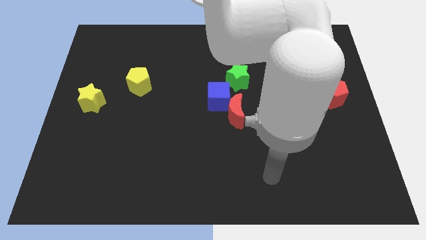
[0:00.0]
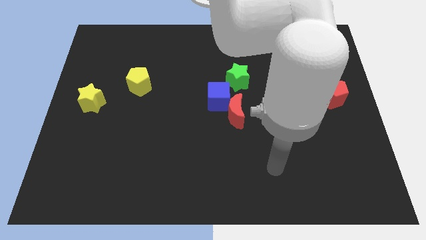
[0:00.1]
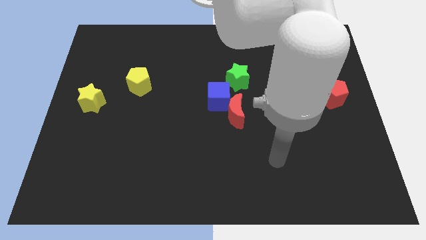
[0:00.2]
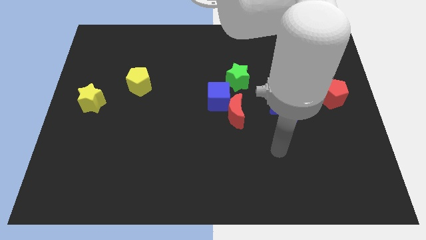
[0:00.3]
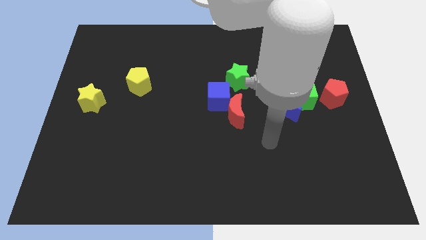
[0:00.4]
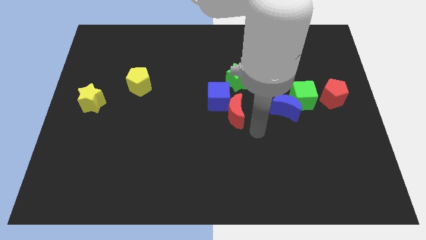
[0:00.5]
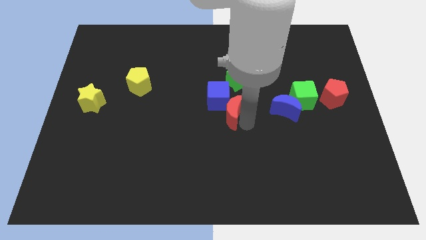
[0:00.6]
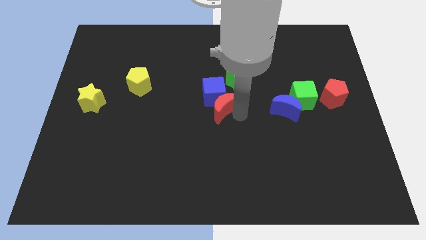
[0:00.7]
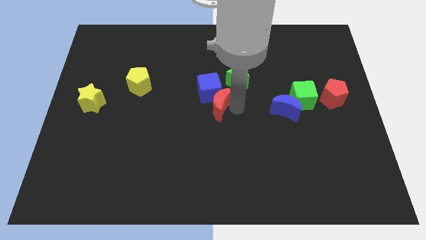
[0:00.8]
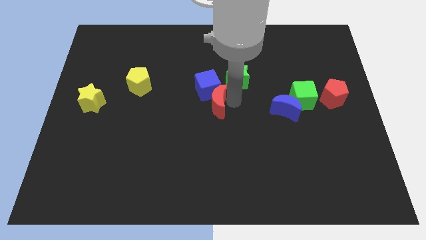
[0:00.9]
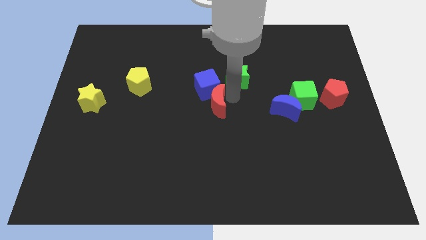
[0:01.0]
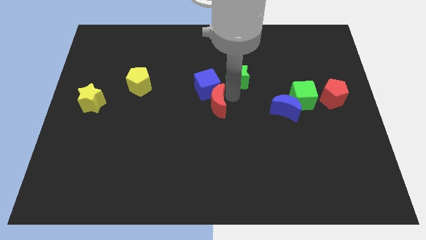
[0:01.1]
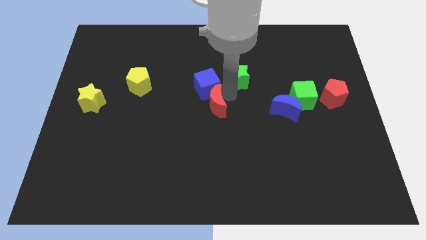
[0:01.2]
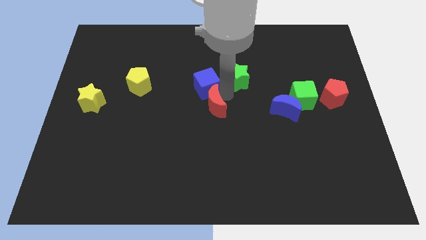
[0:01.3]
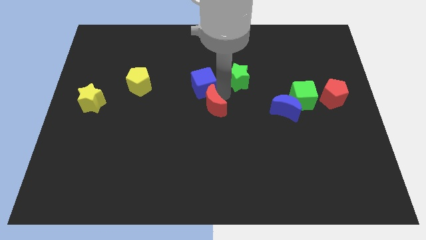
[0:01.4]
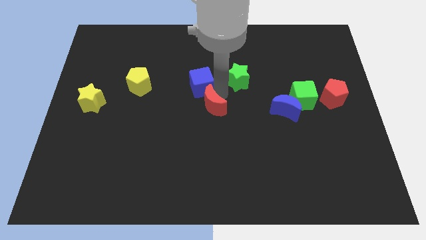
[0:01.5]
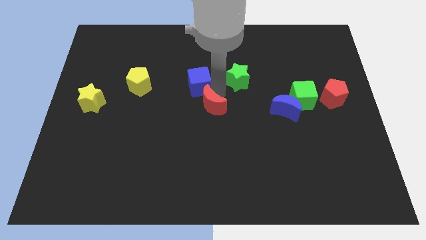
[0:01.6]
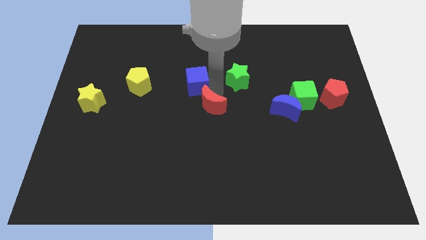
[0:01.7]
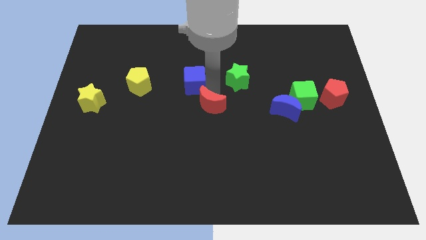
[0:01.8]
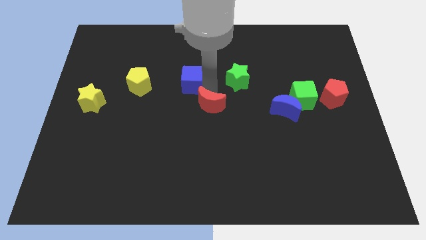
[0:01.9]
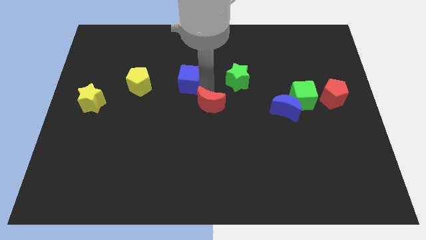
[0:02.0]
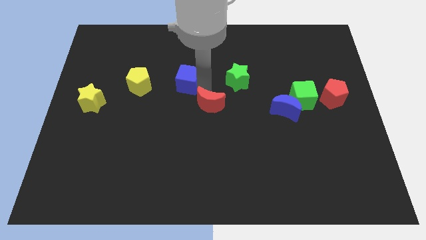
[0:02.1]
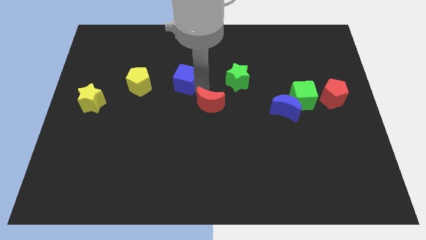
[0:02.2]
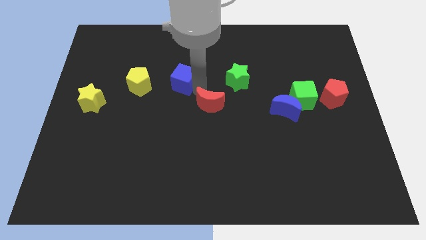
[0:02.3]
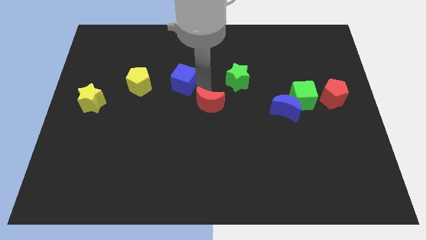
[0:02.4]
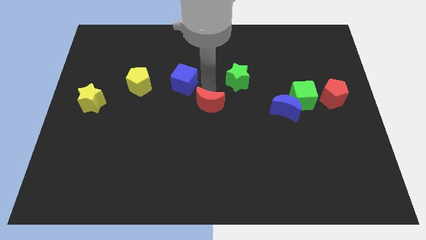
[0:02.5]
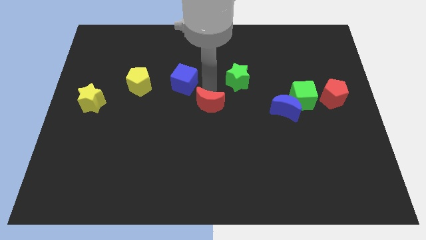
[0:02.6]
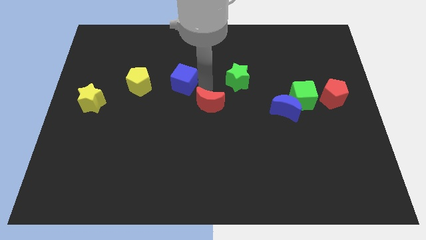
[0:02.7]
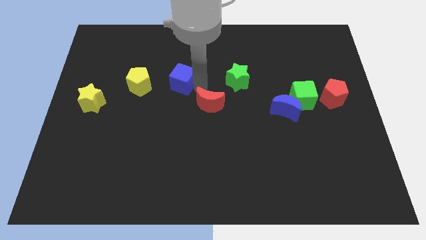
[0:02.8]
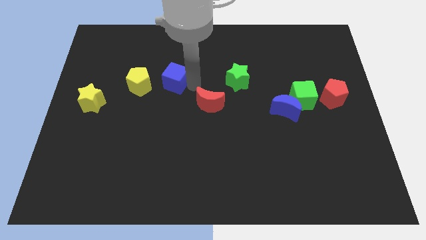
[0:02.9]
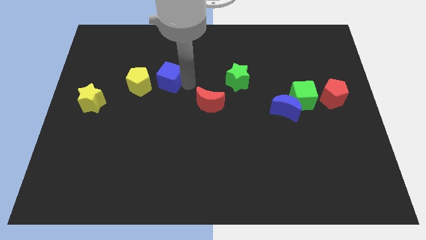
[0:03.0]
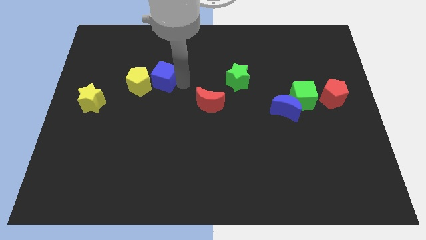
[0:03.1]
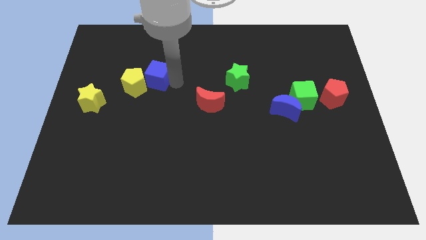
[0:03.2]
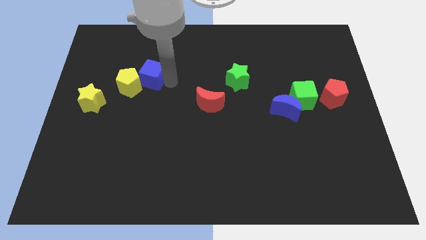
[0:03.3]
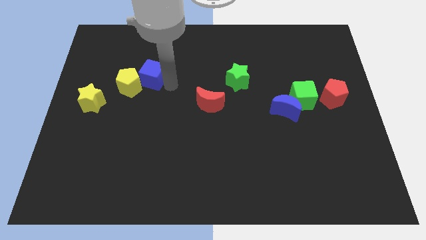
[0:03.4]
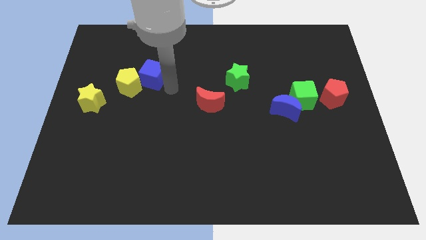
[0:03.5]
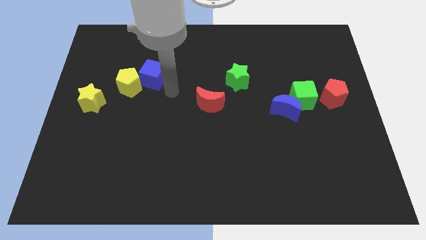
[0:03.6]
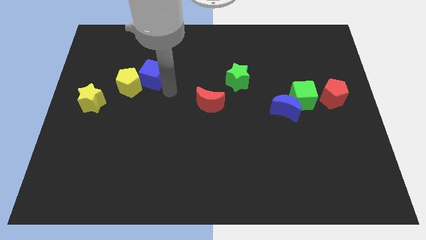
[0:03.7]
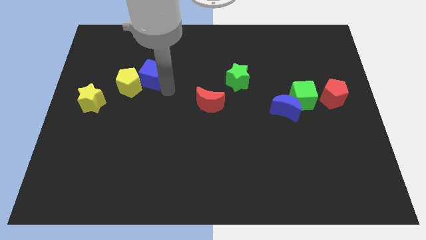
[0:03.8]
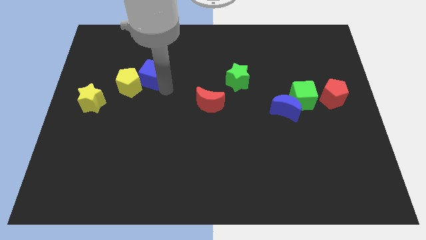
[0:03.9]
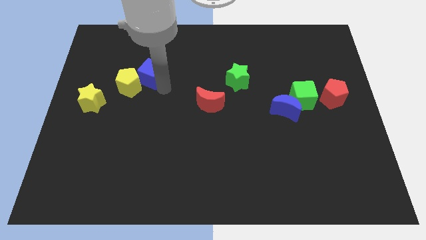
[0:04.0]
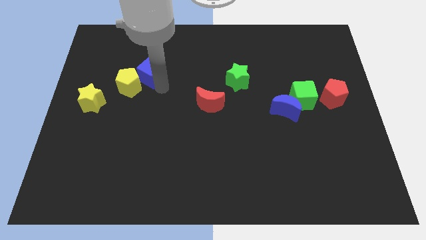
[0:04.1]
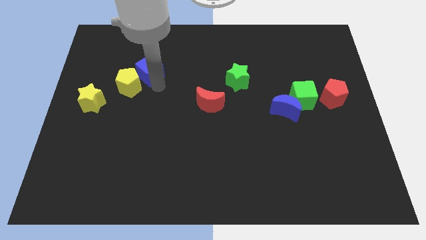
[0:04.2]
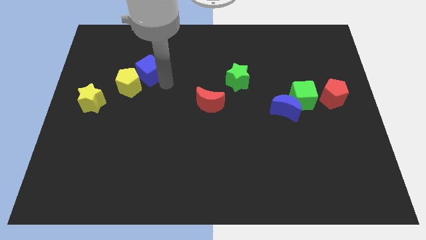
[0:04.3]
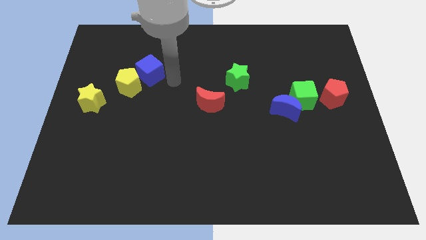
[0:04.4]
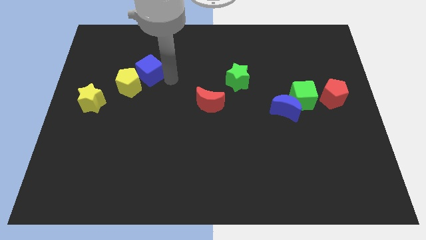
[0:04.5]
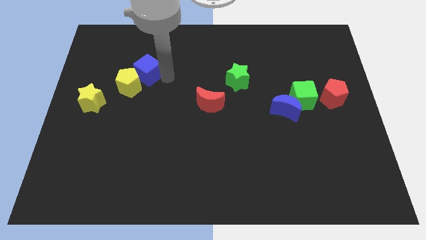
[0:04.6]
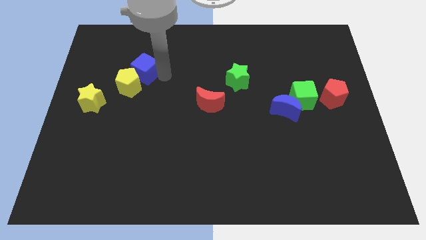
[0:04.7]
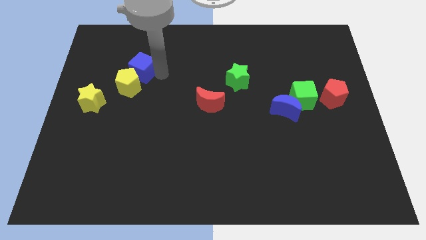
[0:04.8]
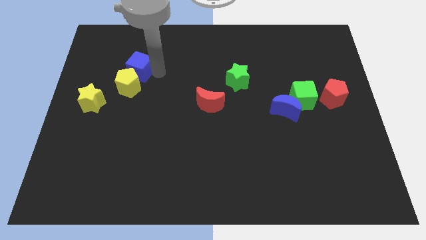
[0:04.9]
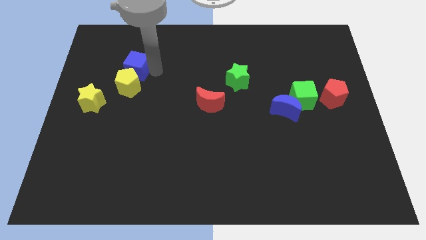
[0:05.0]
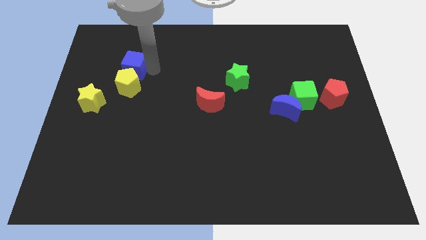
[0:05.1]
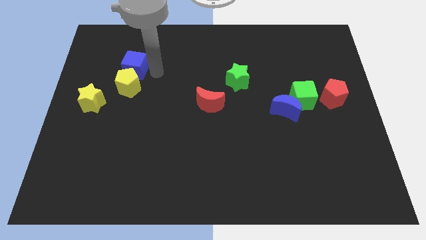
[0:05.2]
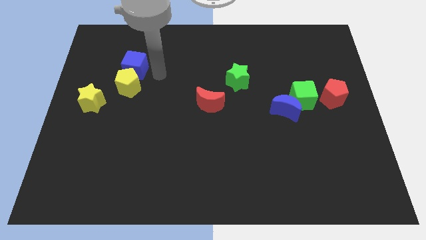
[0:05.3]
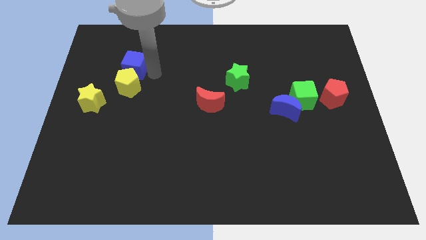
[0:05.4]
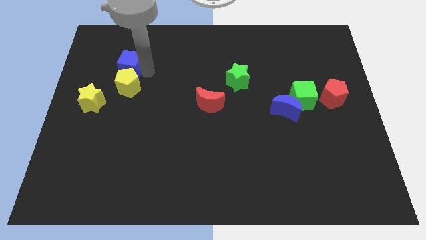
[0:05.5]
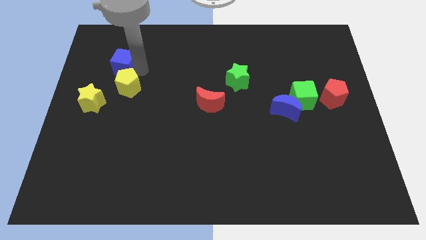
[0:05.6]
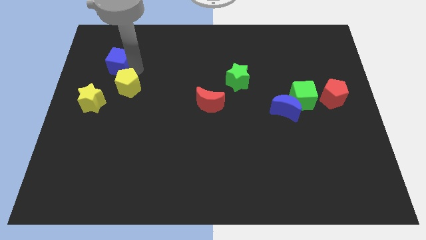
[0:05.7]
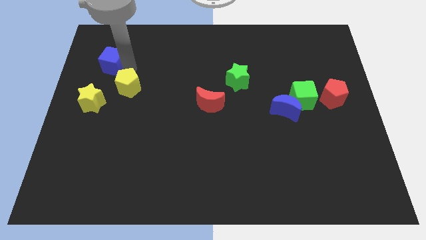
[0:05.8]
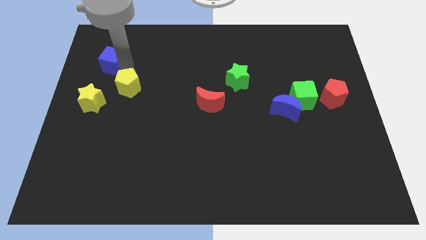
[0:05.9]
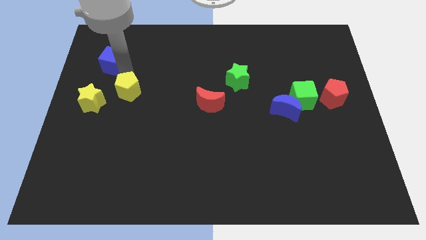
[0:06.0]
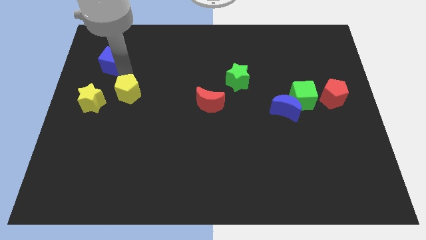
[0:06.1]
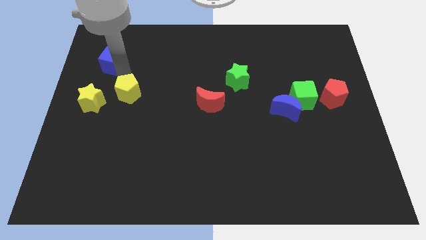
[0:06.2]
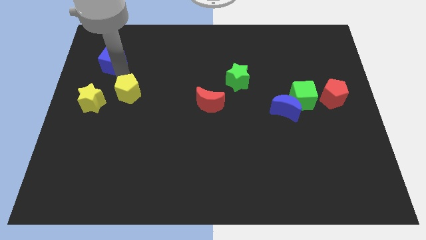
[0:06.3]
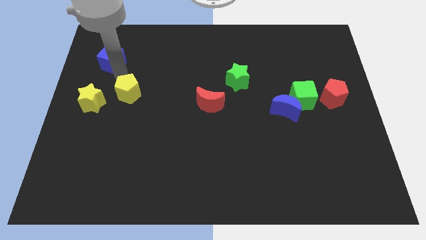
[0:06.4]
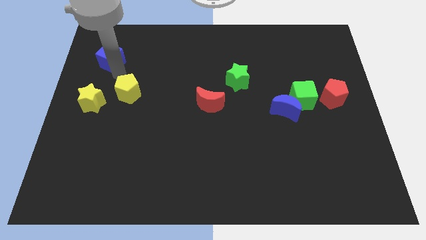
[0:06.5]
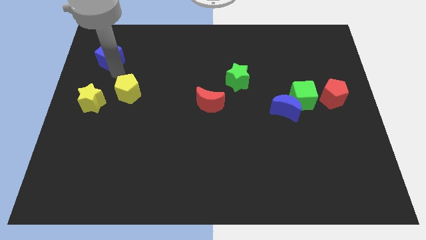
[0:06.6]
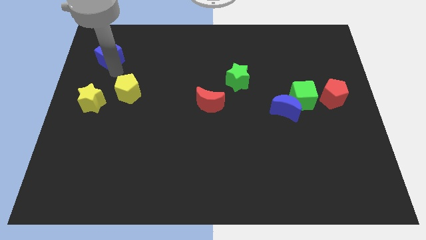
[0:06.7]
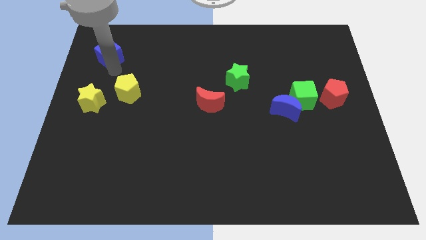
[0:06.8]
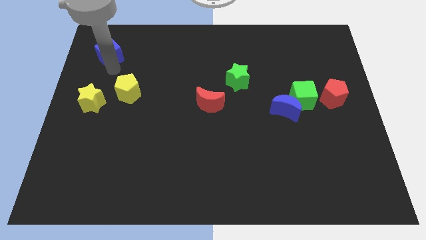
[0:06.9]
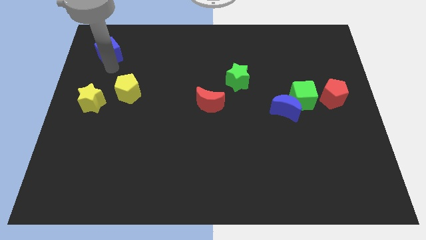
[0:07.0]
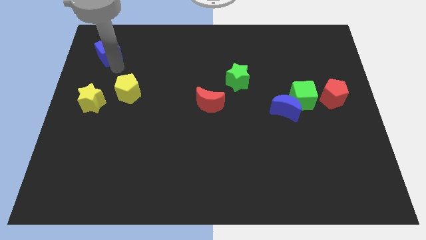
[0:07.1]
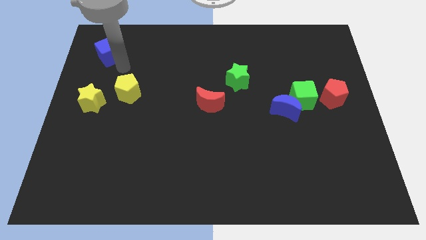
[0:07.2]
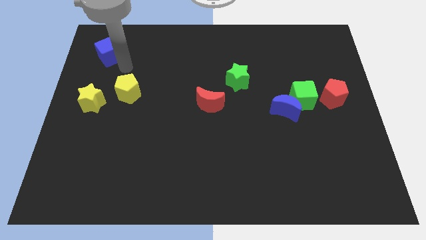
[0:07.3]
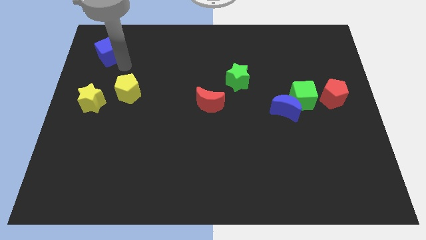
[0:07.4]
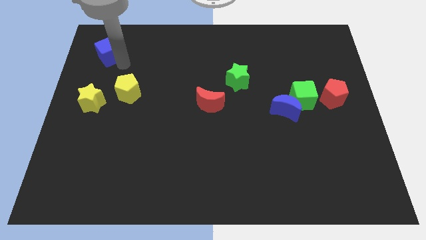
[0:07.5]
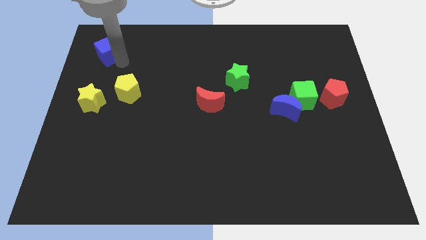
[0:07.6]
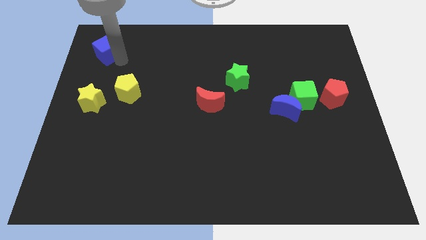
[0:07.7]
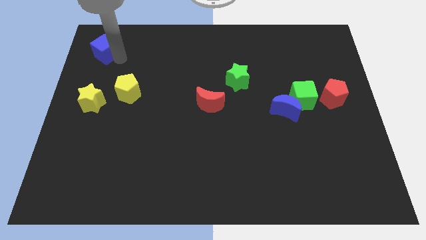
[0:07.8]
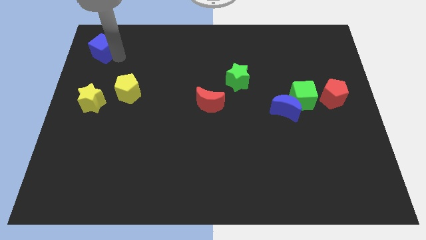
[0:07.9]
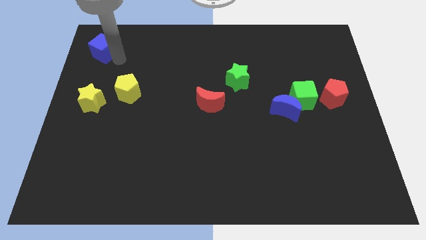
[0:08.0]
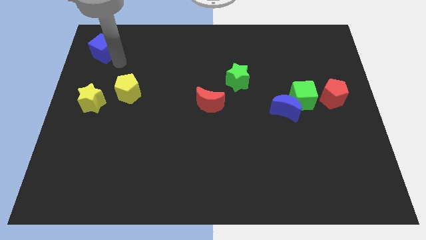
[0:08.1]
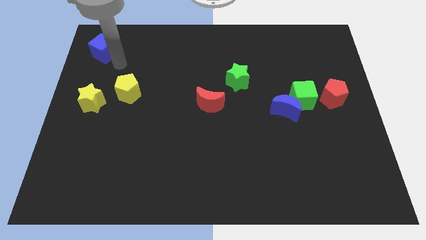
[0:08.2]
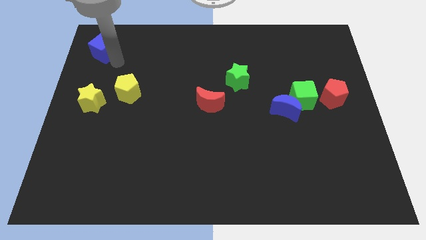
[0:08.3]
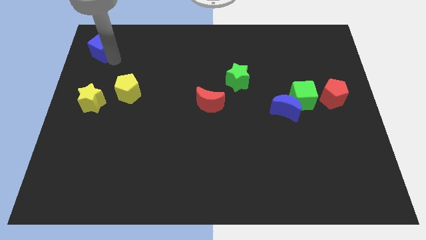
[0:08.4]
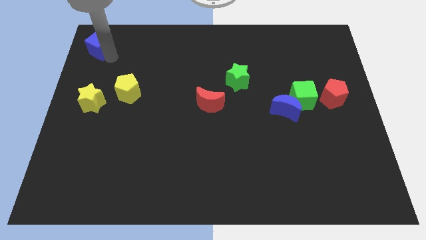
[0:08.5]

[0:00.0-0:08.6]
put the blue cube to the top left corner
